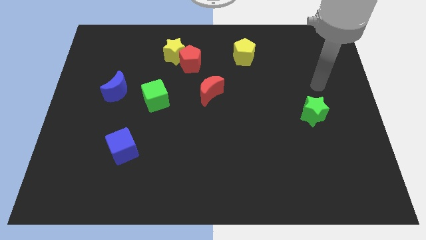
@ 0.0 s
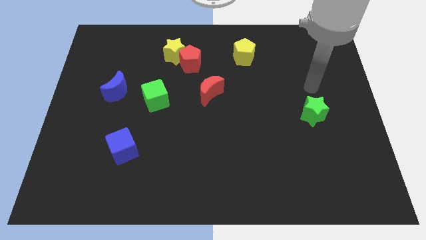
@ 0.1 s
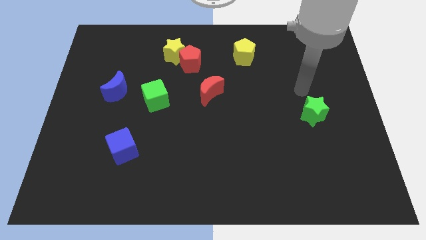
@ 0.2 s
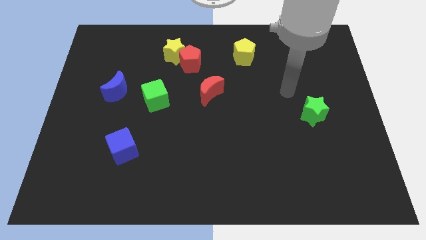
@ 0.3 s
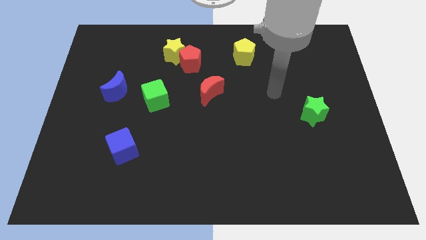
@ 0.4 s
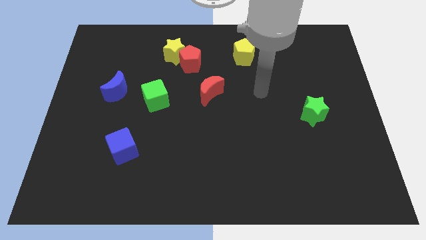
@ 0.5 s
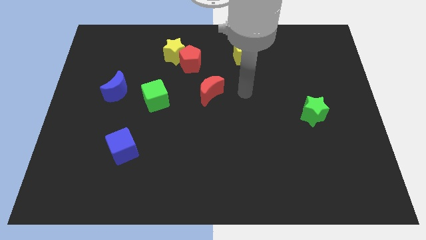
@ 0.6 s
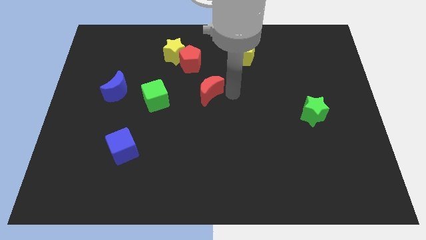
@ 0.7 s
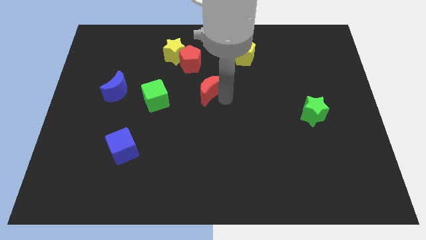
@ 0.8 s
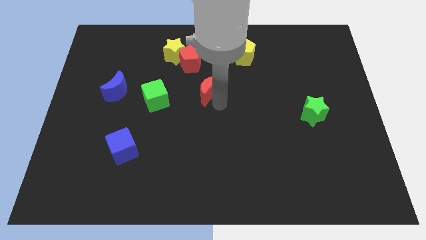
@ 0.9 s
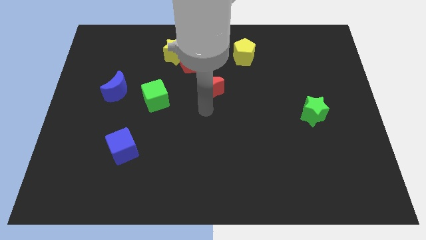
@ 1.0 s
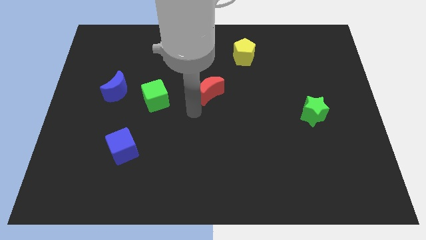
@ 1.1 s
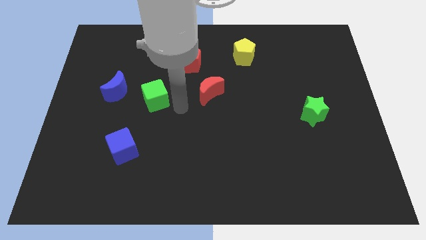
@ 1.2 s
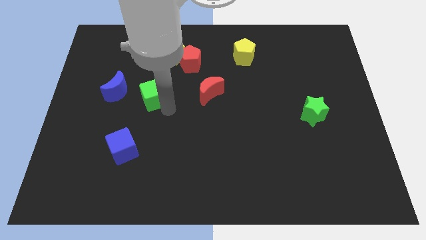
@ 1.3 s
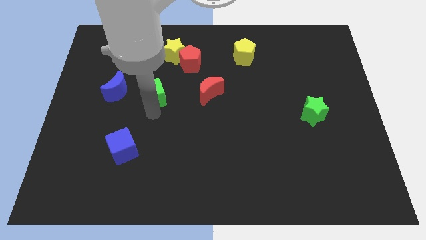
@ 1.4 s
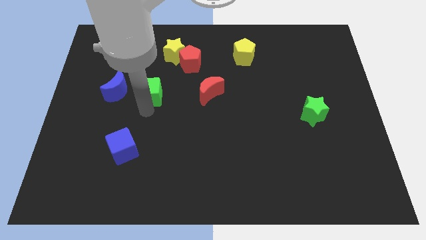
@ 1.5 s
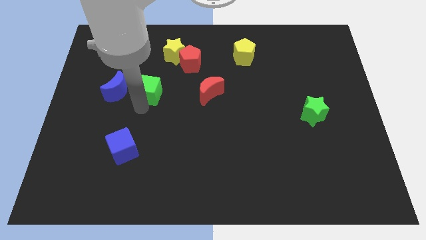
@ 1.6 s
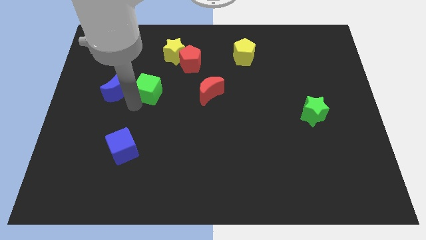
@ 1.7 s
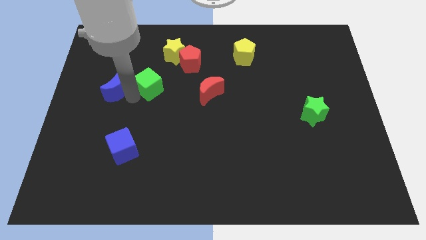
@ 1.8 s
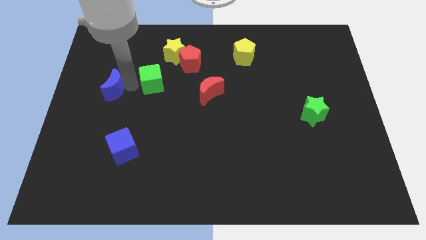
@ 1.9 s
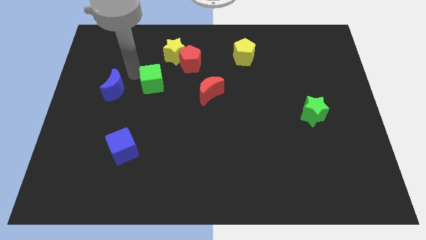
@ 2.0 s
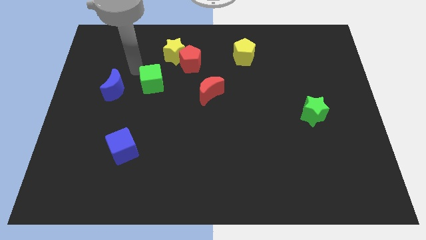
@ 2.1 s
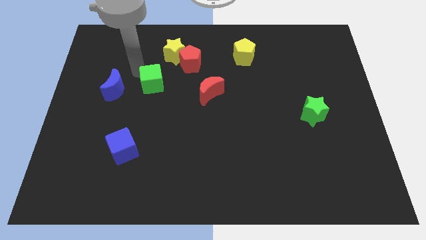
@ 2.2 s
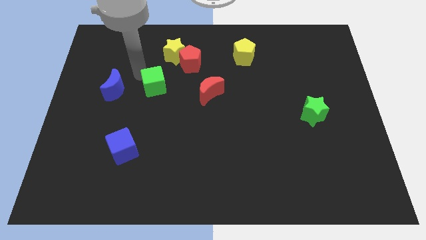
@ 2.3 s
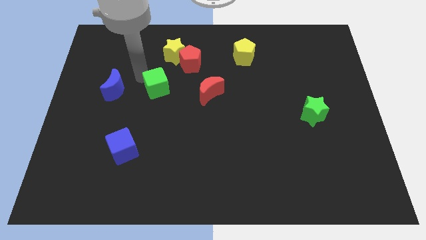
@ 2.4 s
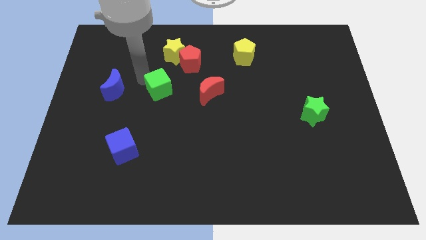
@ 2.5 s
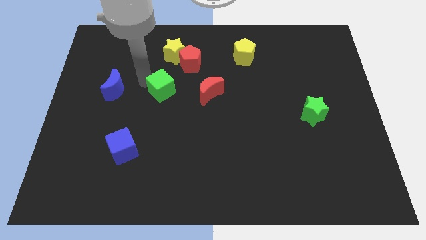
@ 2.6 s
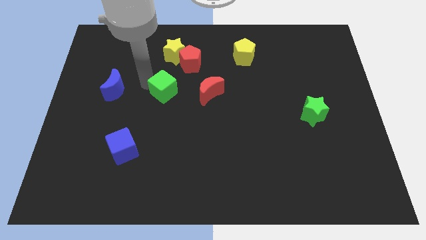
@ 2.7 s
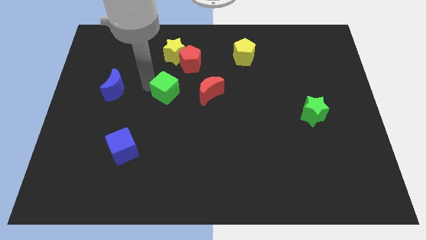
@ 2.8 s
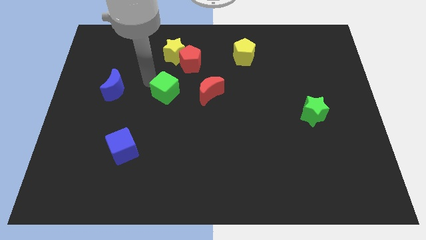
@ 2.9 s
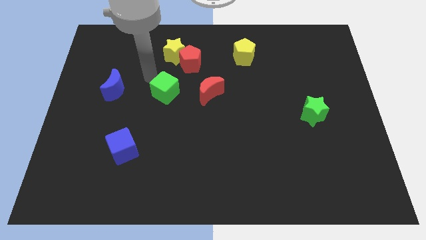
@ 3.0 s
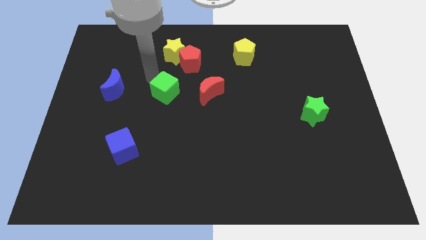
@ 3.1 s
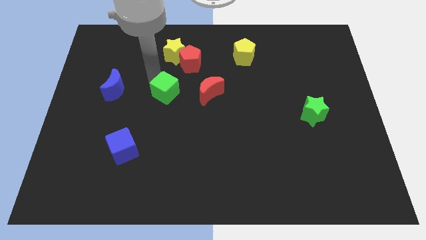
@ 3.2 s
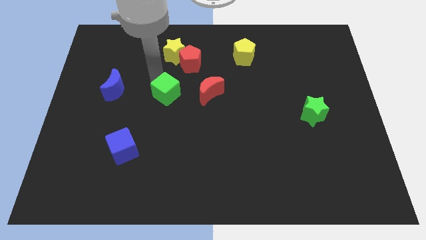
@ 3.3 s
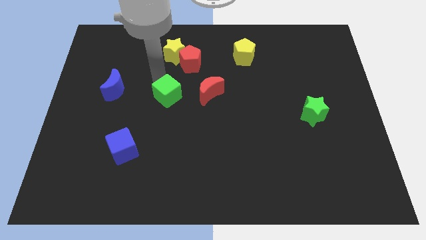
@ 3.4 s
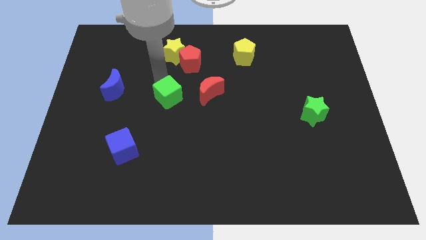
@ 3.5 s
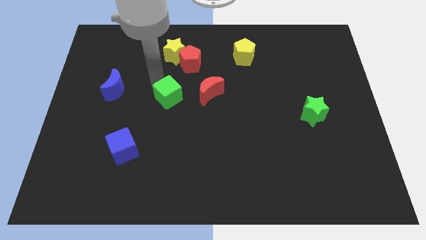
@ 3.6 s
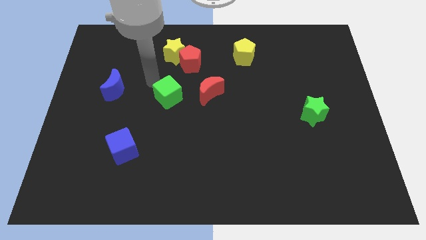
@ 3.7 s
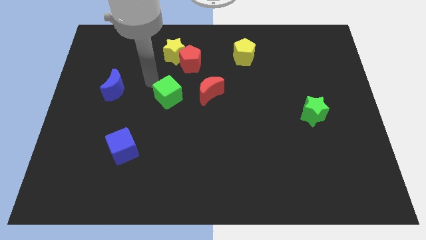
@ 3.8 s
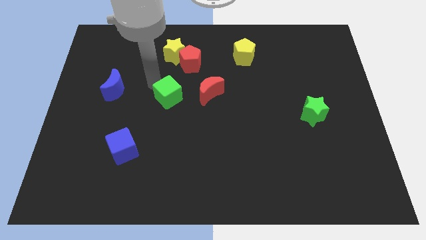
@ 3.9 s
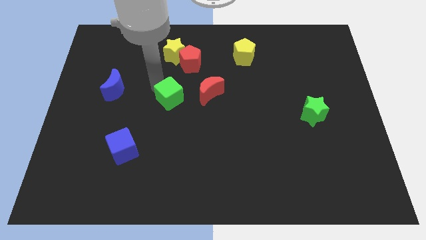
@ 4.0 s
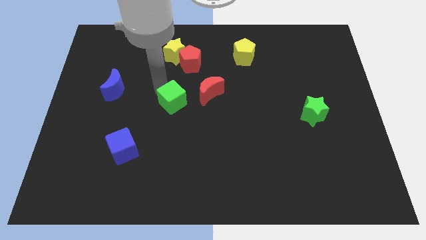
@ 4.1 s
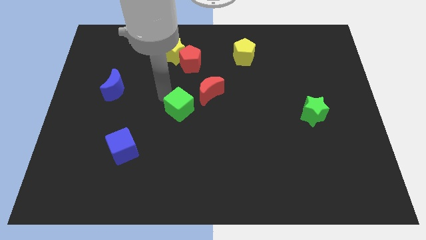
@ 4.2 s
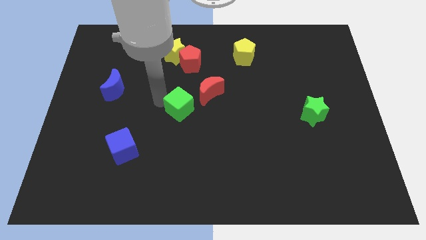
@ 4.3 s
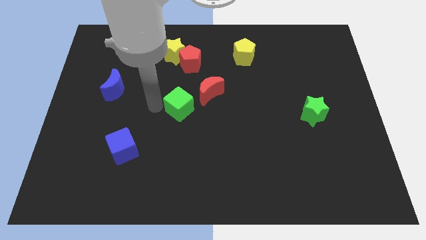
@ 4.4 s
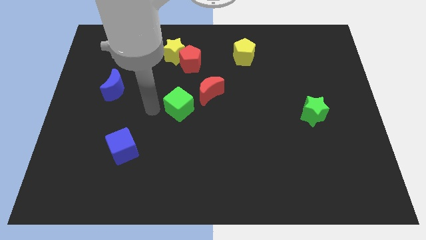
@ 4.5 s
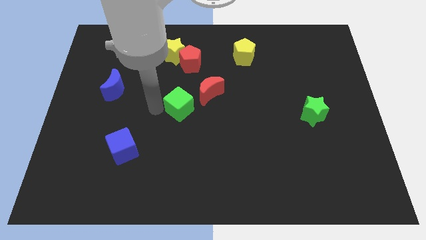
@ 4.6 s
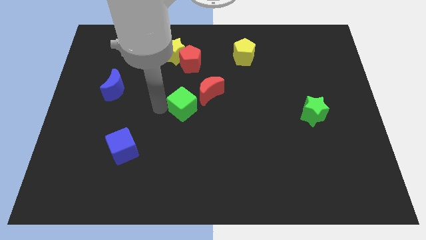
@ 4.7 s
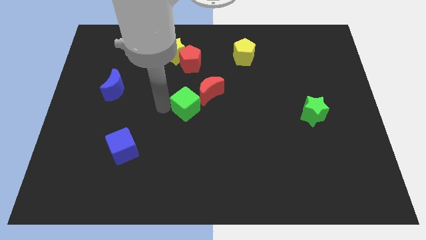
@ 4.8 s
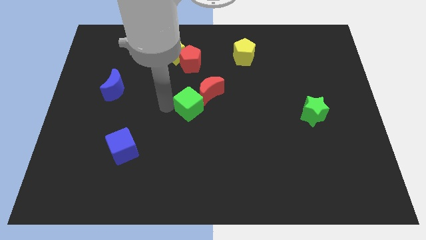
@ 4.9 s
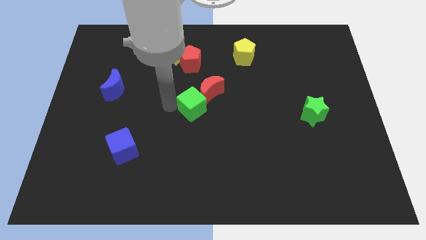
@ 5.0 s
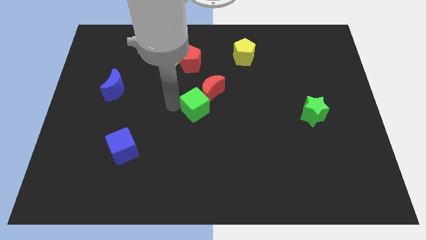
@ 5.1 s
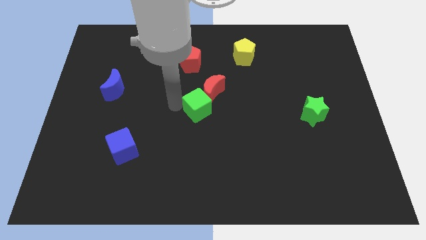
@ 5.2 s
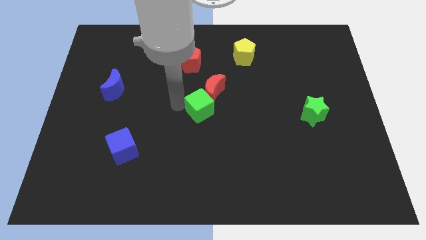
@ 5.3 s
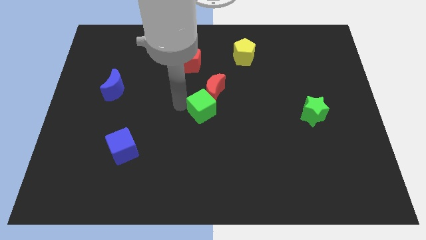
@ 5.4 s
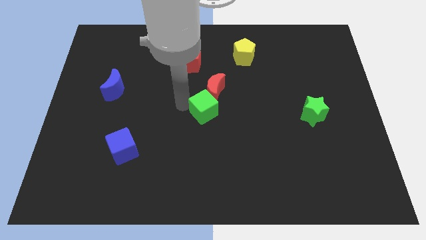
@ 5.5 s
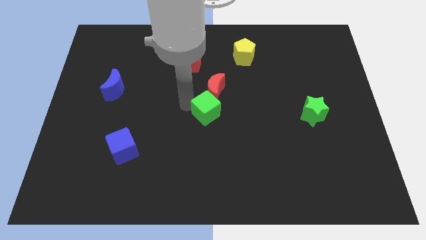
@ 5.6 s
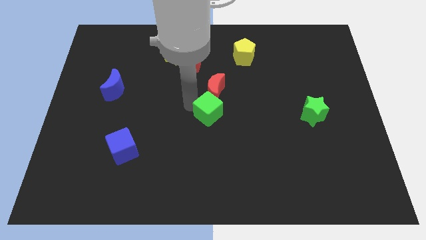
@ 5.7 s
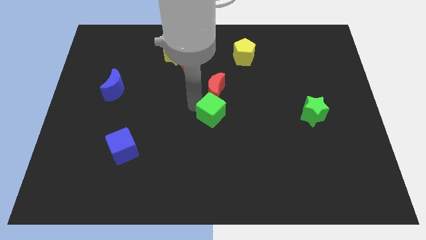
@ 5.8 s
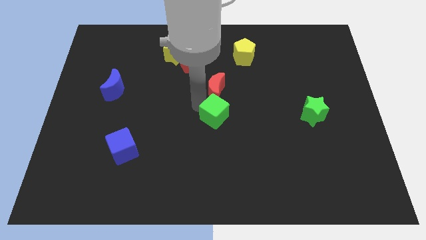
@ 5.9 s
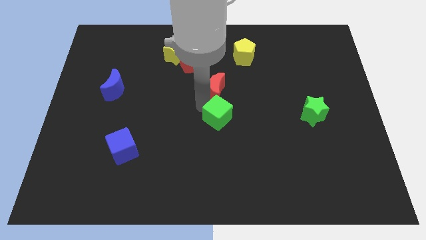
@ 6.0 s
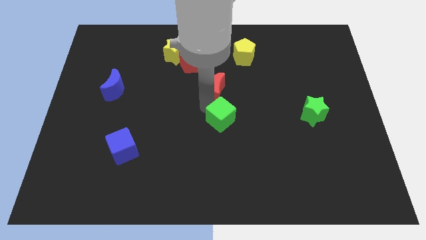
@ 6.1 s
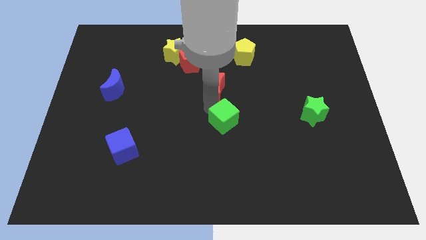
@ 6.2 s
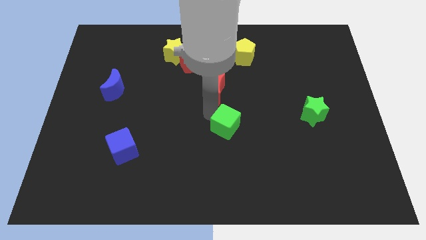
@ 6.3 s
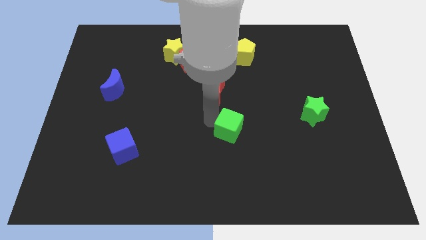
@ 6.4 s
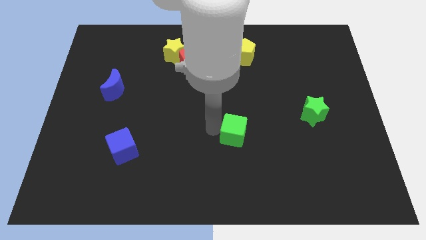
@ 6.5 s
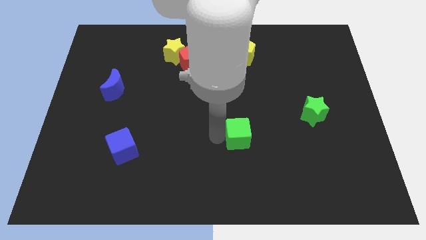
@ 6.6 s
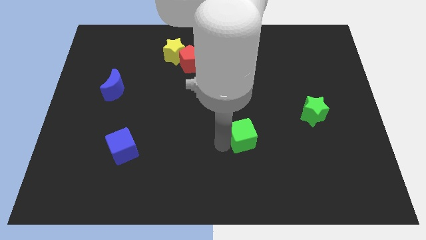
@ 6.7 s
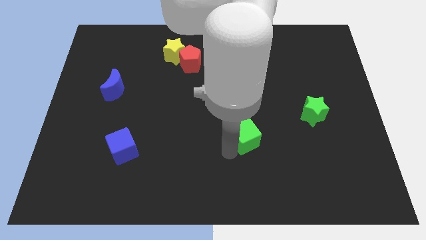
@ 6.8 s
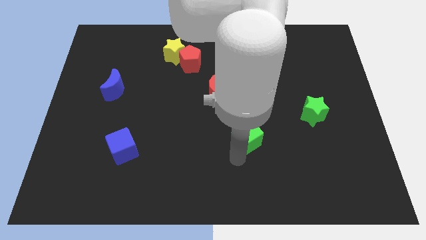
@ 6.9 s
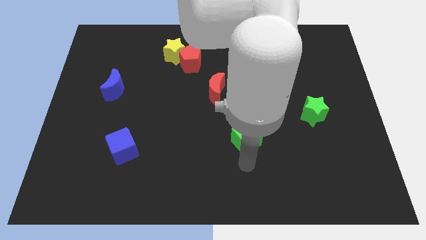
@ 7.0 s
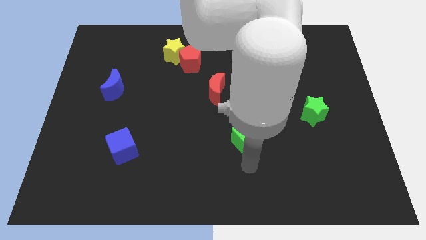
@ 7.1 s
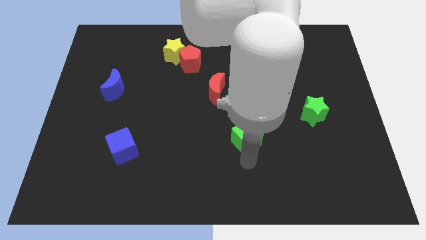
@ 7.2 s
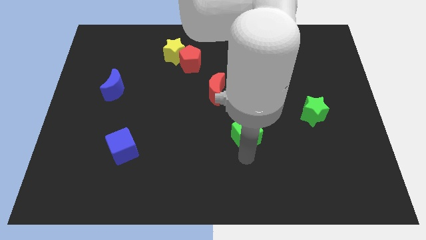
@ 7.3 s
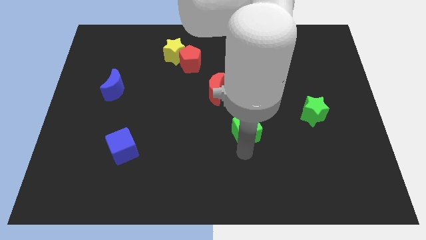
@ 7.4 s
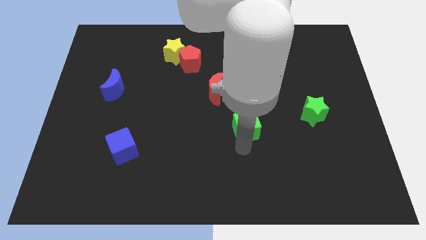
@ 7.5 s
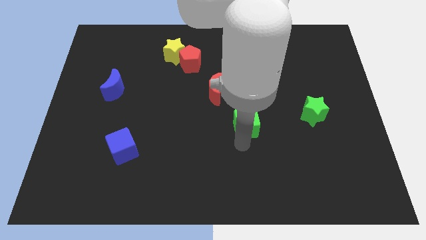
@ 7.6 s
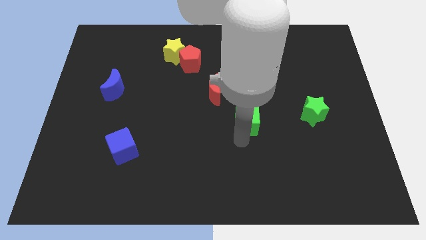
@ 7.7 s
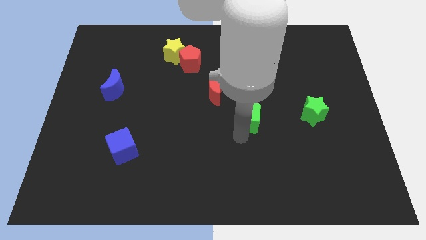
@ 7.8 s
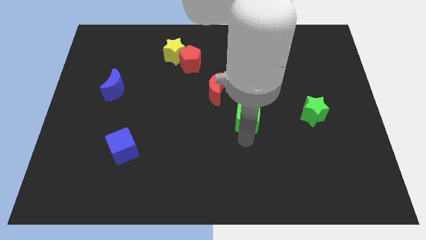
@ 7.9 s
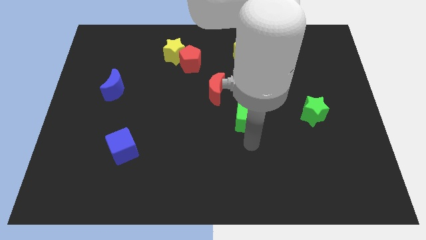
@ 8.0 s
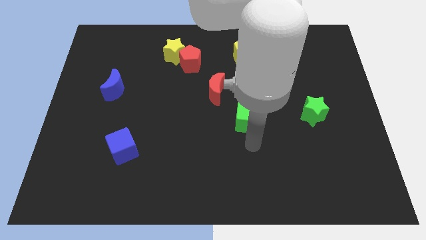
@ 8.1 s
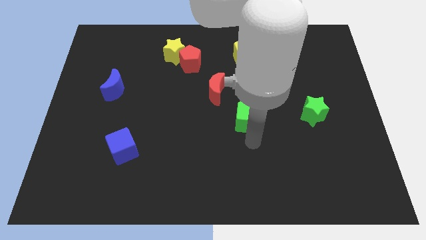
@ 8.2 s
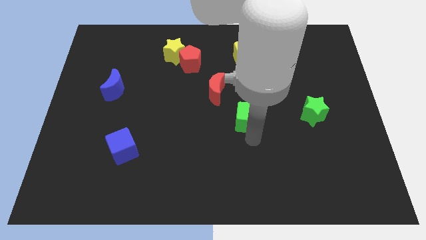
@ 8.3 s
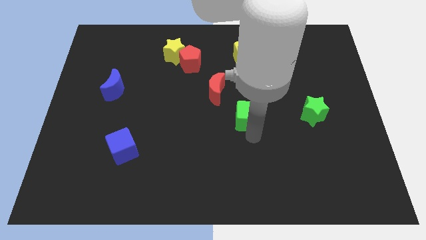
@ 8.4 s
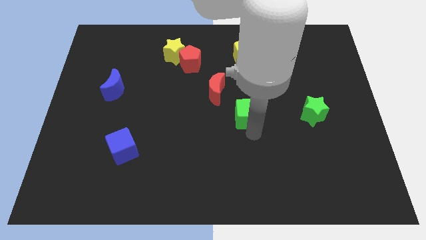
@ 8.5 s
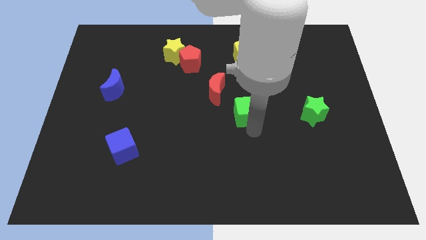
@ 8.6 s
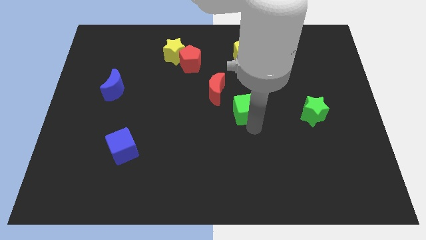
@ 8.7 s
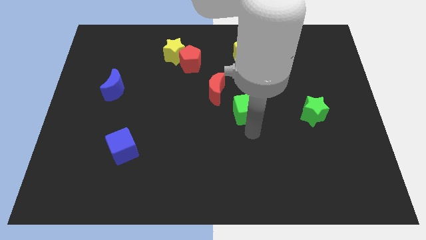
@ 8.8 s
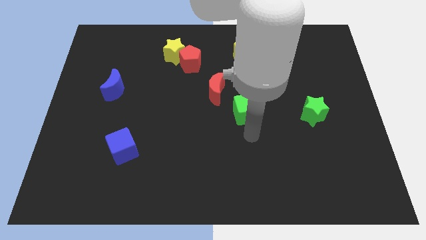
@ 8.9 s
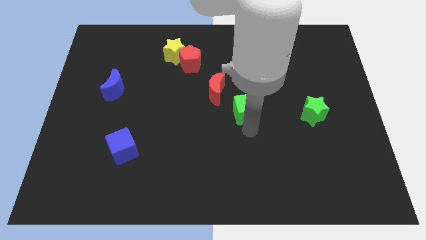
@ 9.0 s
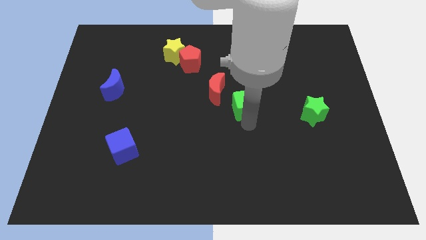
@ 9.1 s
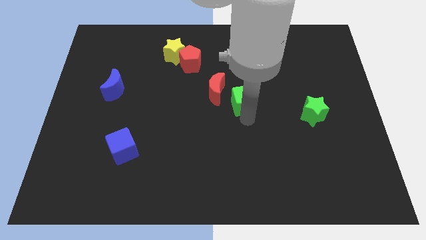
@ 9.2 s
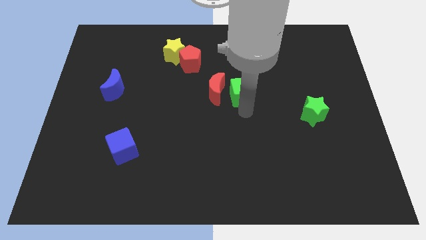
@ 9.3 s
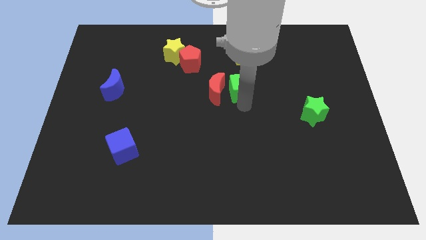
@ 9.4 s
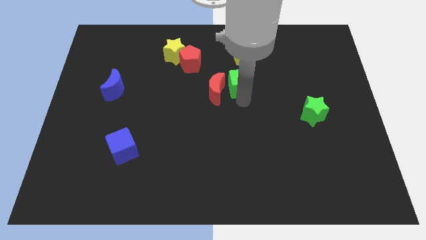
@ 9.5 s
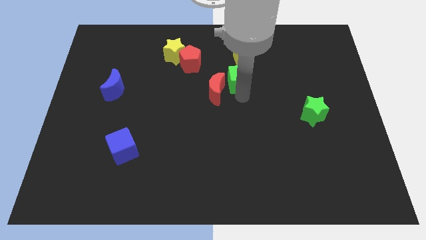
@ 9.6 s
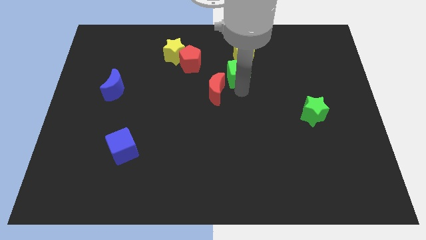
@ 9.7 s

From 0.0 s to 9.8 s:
put the green cube just right of the red pentagon
